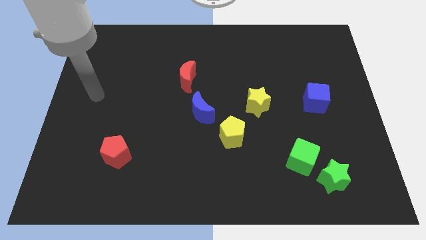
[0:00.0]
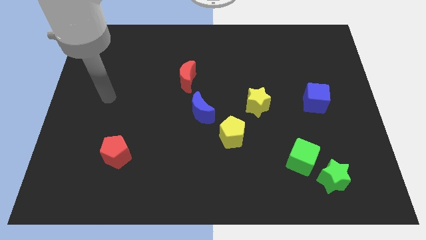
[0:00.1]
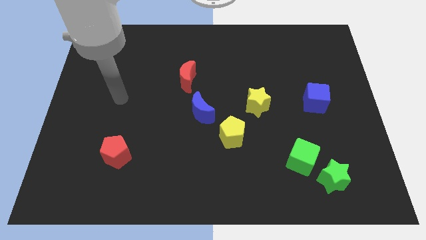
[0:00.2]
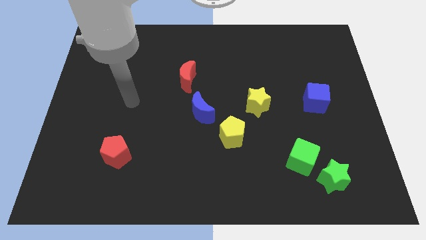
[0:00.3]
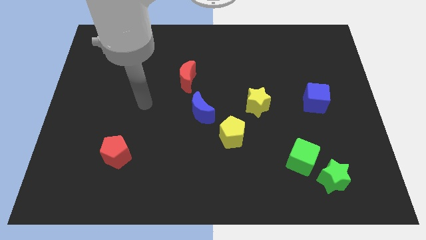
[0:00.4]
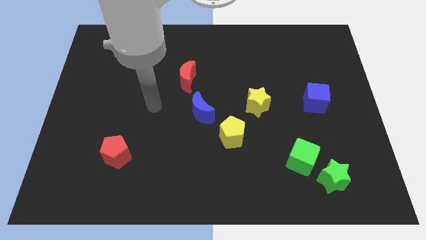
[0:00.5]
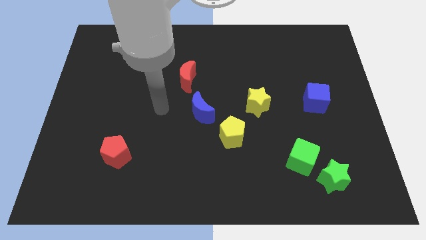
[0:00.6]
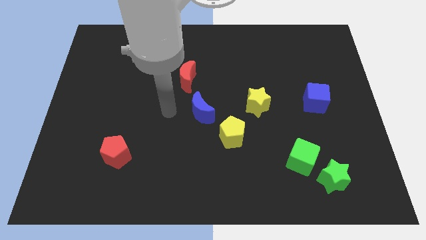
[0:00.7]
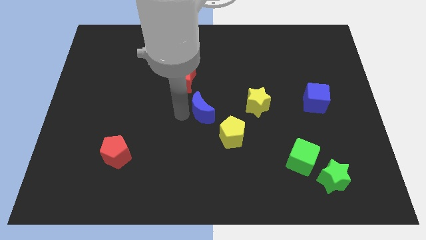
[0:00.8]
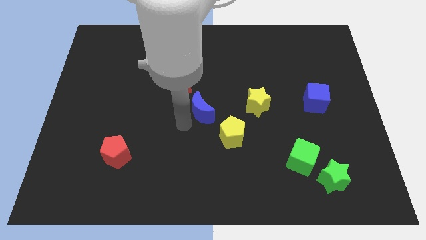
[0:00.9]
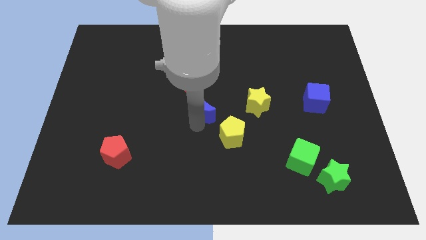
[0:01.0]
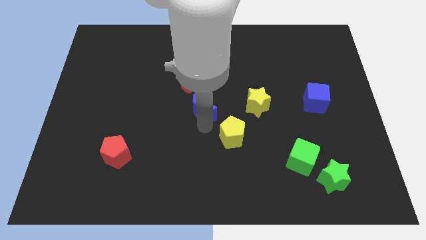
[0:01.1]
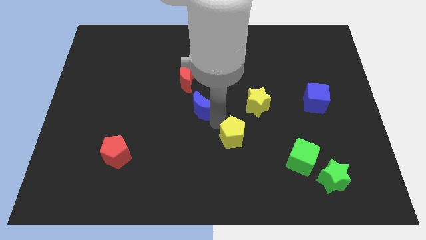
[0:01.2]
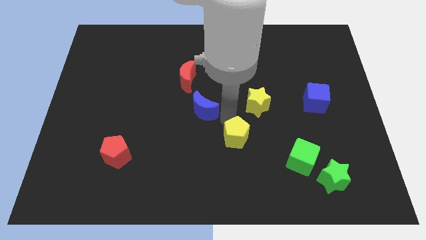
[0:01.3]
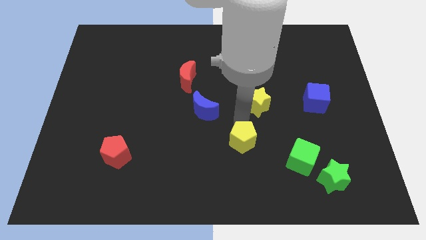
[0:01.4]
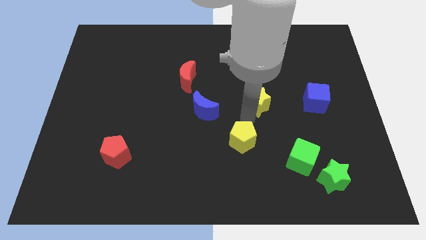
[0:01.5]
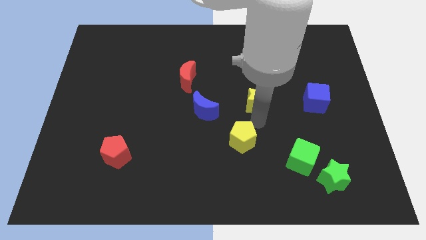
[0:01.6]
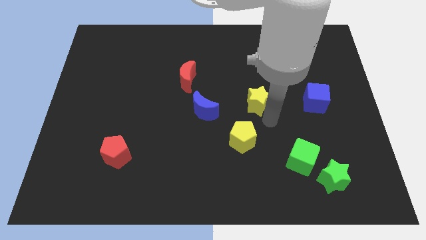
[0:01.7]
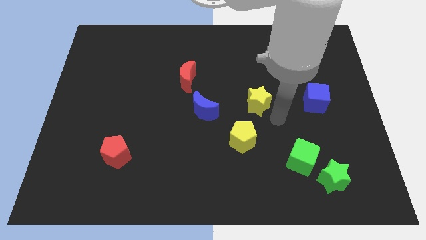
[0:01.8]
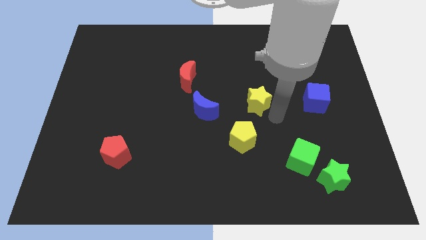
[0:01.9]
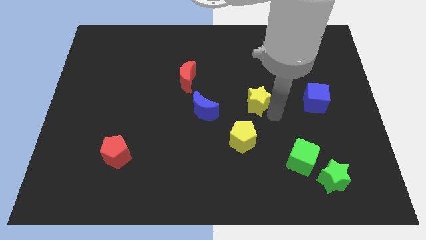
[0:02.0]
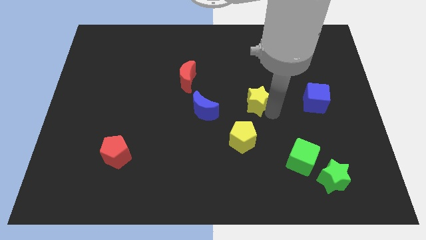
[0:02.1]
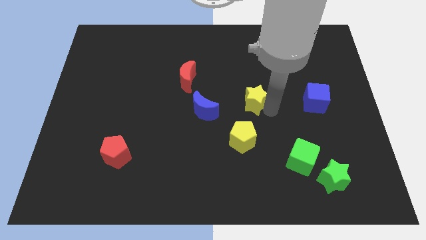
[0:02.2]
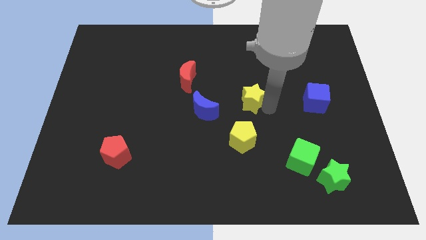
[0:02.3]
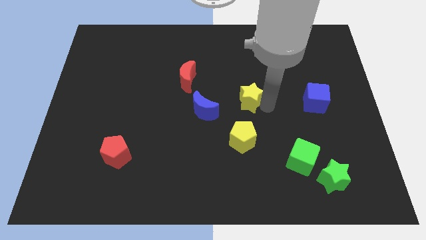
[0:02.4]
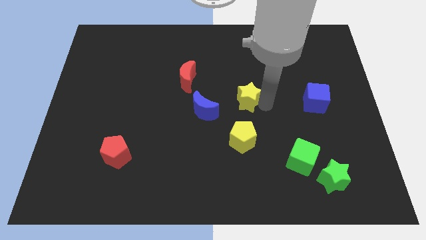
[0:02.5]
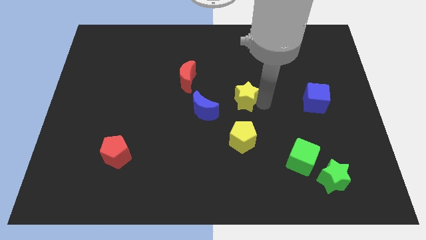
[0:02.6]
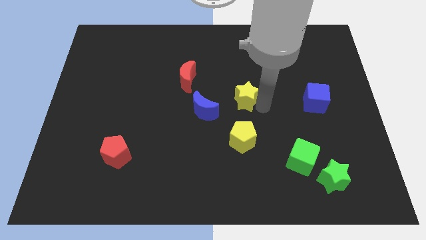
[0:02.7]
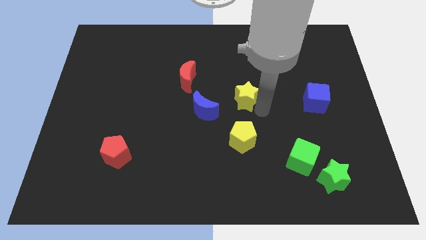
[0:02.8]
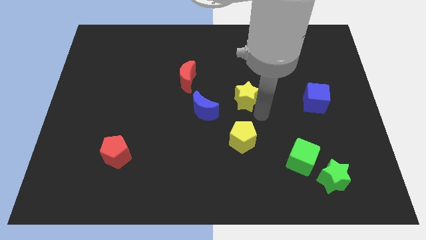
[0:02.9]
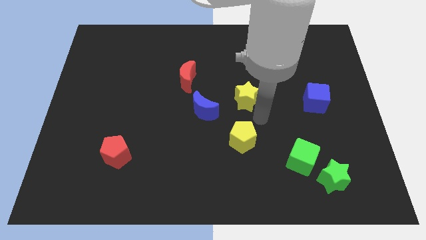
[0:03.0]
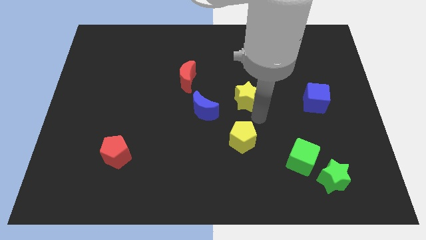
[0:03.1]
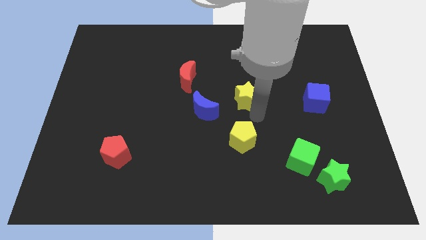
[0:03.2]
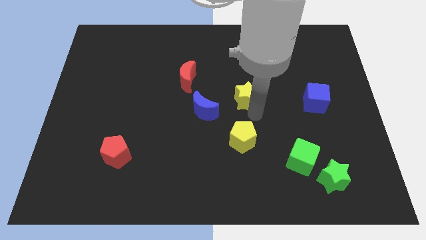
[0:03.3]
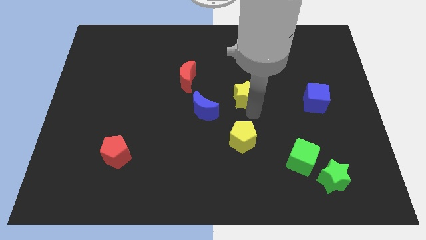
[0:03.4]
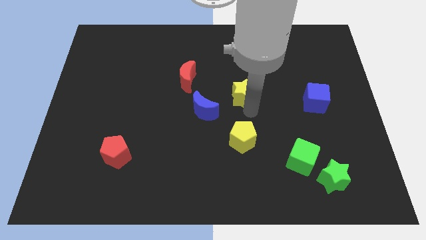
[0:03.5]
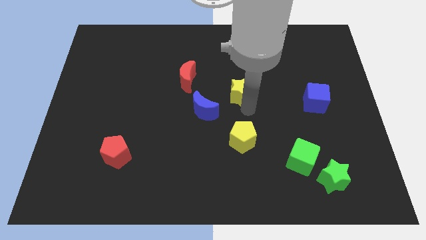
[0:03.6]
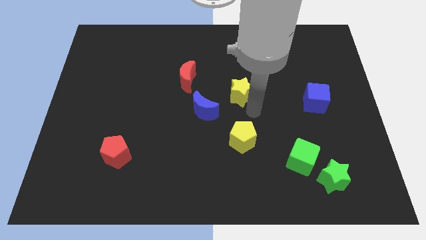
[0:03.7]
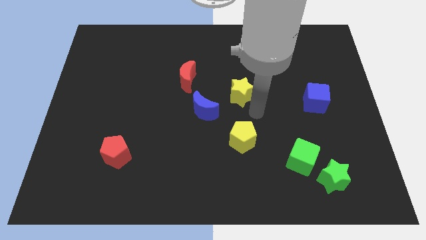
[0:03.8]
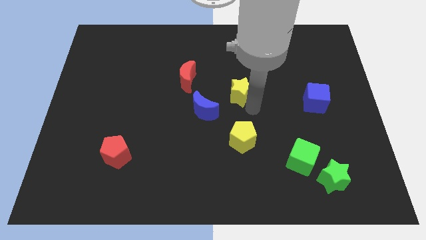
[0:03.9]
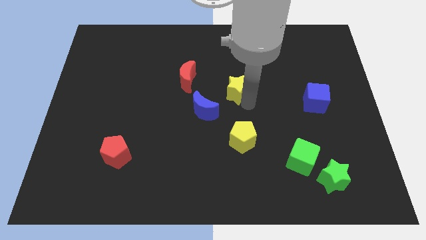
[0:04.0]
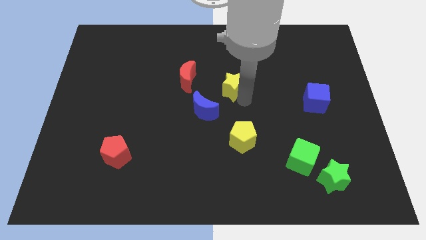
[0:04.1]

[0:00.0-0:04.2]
push the yellow star up and left slightly

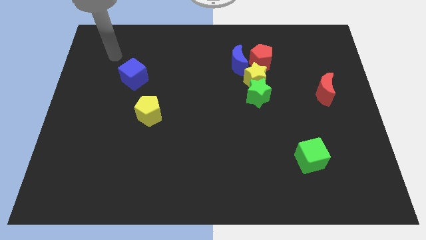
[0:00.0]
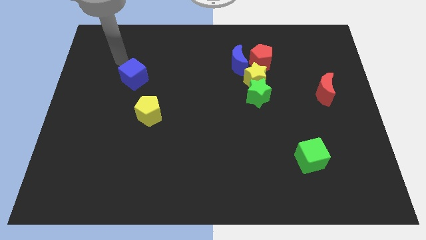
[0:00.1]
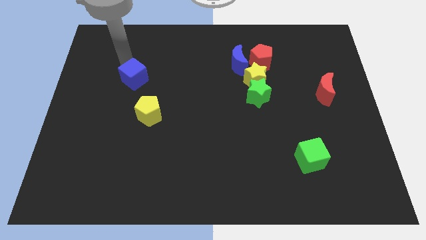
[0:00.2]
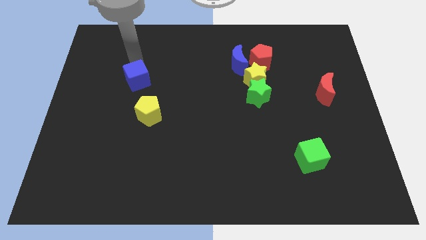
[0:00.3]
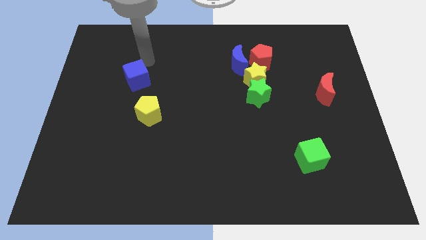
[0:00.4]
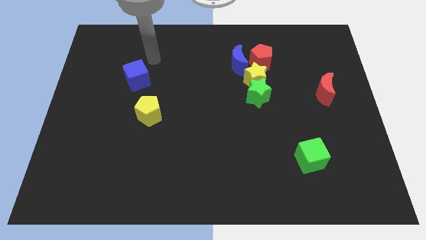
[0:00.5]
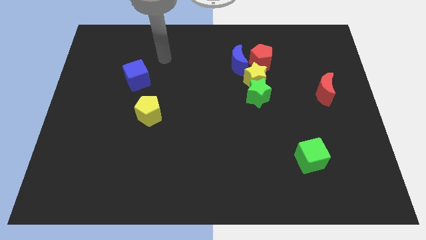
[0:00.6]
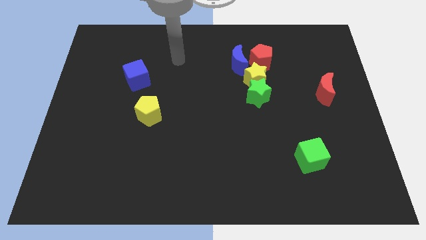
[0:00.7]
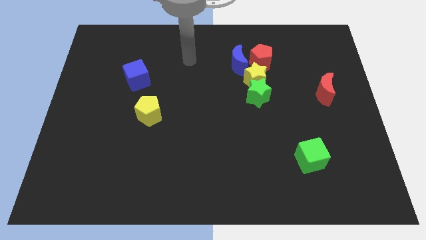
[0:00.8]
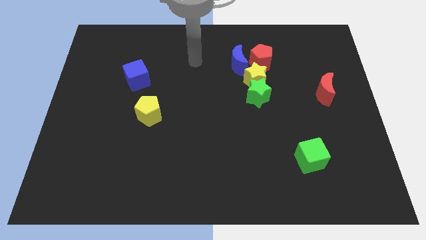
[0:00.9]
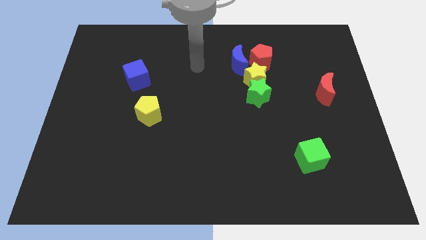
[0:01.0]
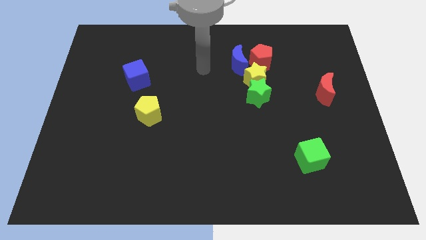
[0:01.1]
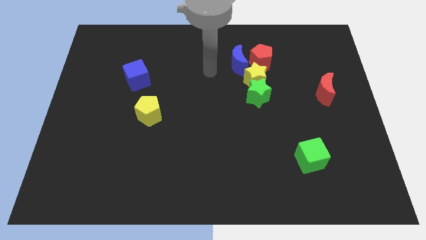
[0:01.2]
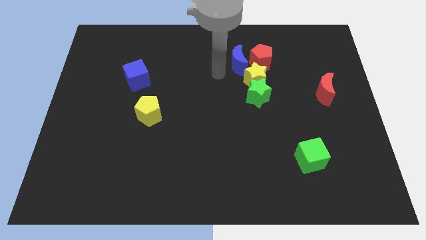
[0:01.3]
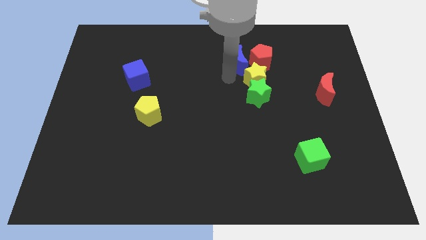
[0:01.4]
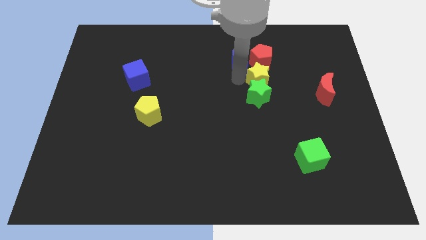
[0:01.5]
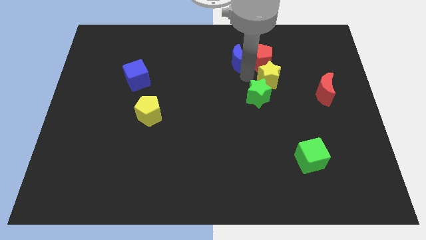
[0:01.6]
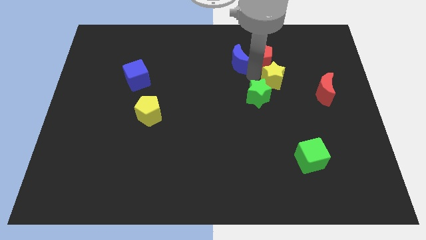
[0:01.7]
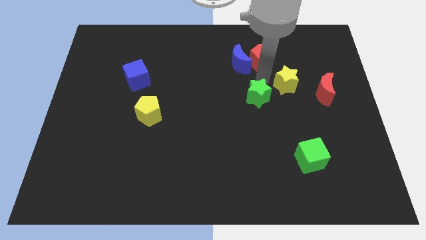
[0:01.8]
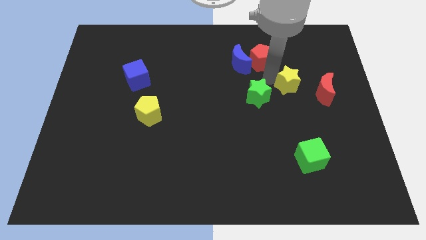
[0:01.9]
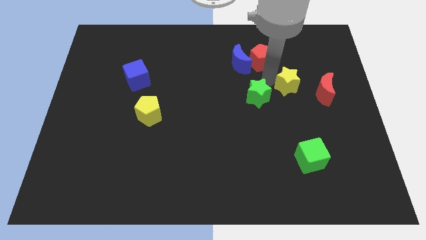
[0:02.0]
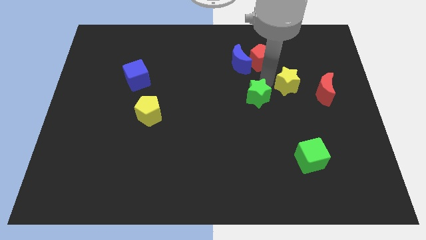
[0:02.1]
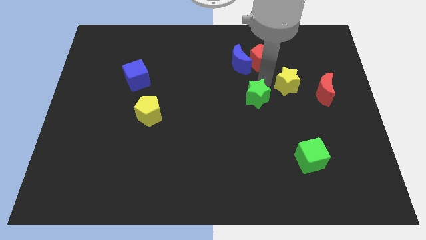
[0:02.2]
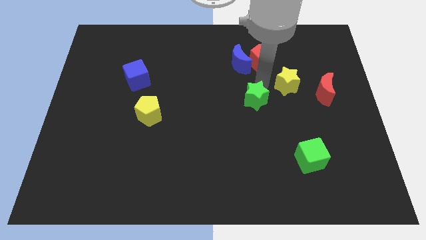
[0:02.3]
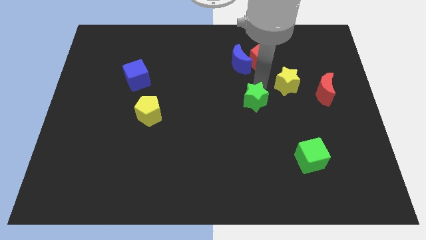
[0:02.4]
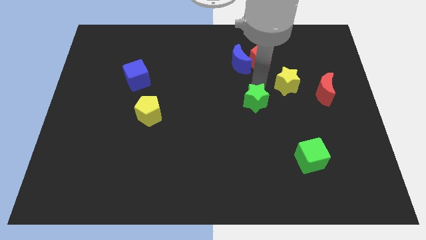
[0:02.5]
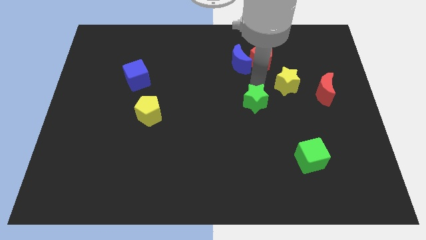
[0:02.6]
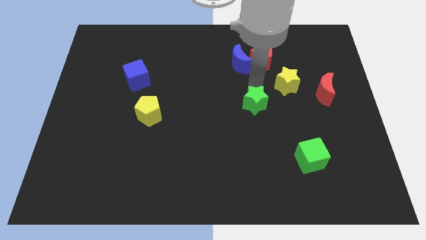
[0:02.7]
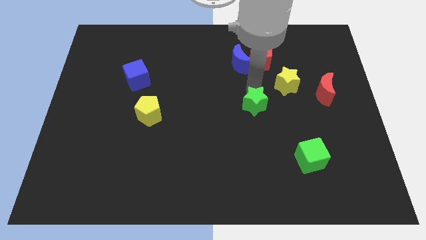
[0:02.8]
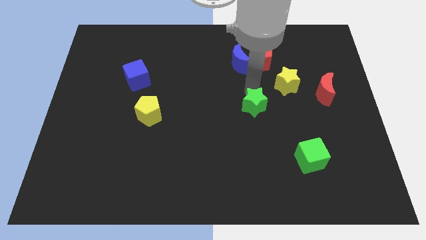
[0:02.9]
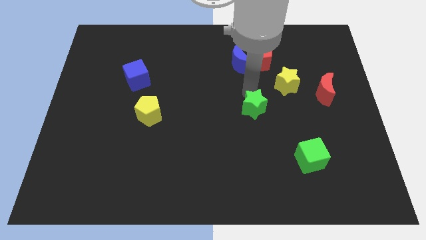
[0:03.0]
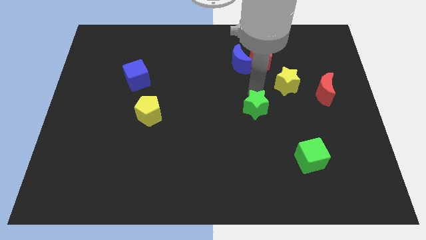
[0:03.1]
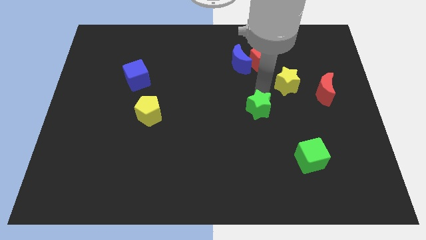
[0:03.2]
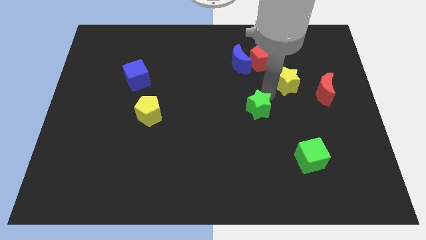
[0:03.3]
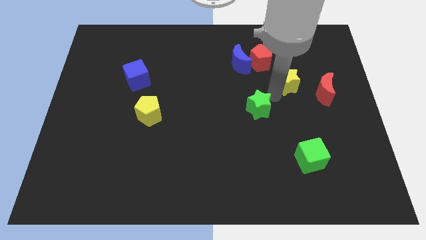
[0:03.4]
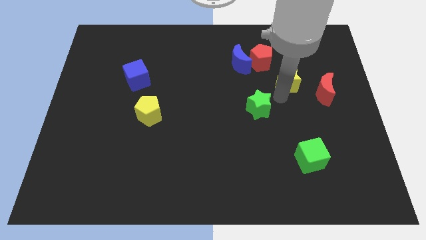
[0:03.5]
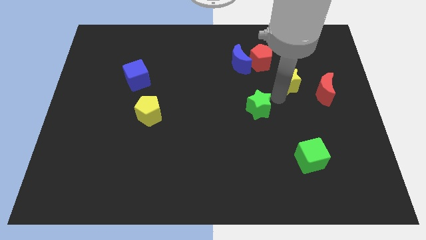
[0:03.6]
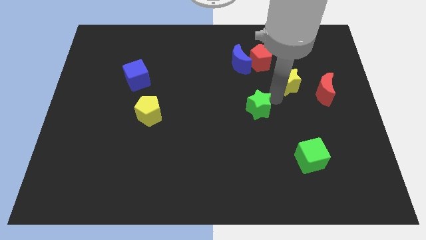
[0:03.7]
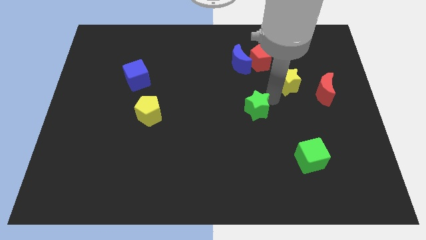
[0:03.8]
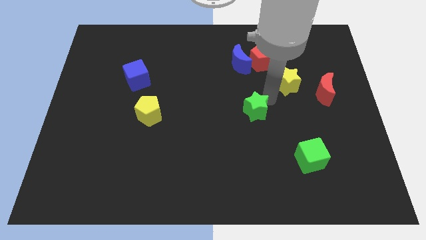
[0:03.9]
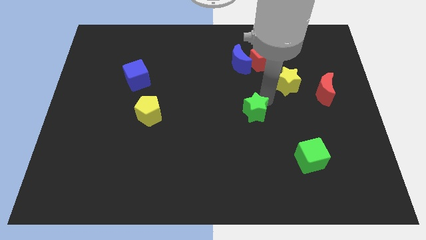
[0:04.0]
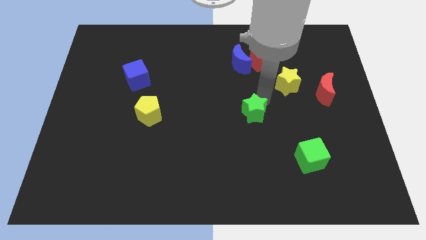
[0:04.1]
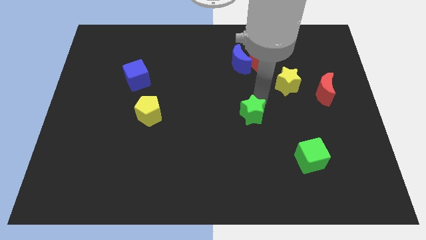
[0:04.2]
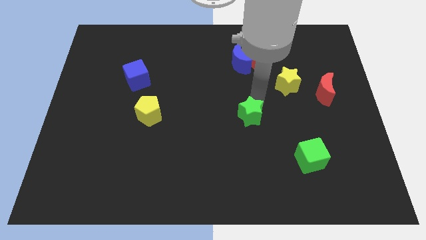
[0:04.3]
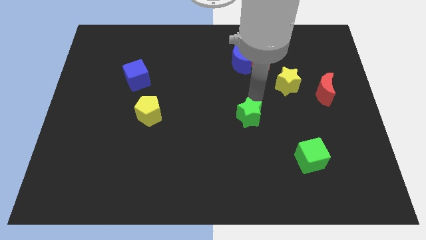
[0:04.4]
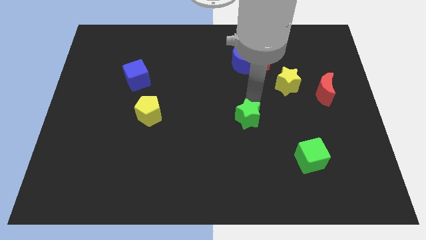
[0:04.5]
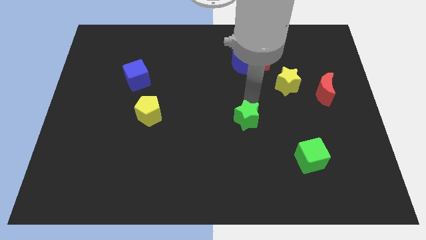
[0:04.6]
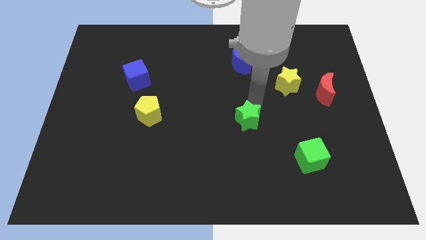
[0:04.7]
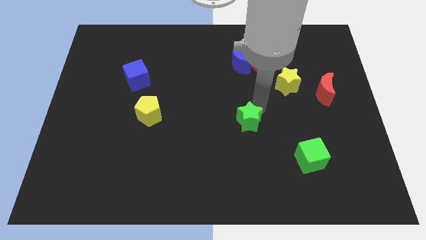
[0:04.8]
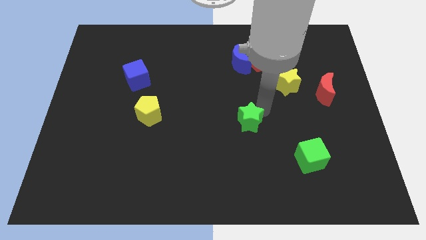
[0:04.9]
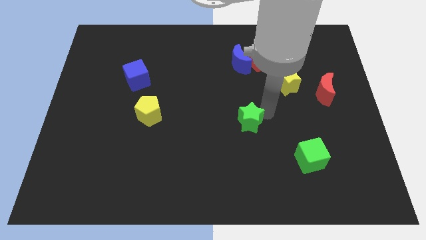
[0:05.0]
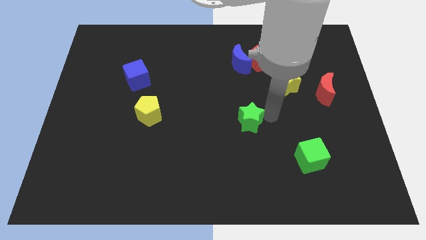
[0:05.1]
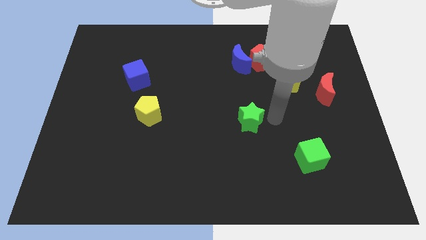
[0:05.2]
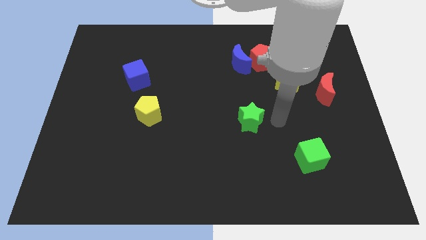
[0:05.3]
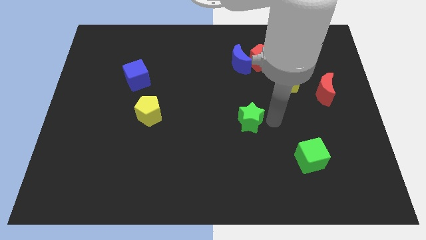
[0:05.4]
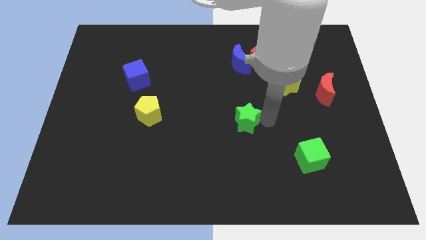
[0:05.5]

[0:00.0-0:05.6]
push the green star somewhat diagonally downwards and to the left
